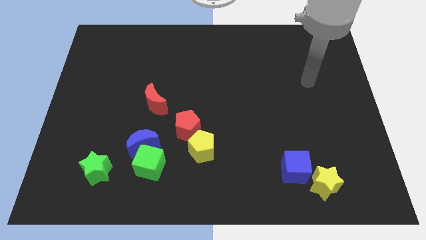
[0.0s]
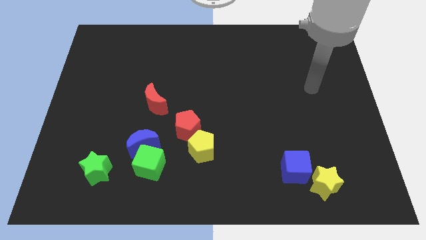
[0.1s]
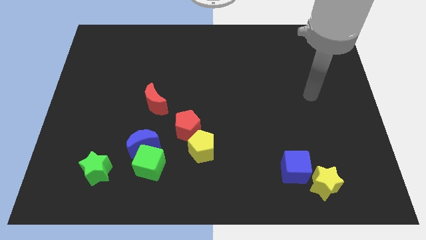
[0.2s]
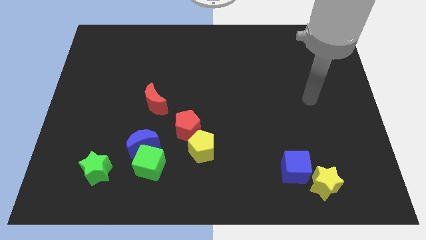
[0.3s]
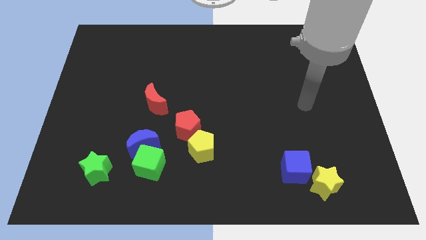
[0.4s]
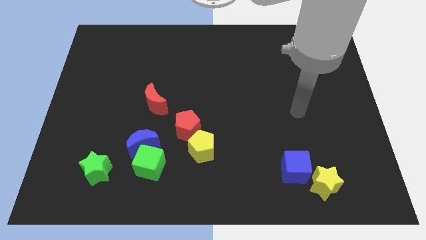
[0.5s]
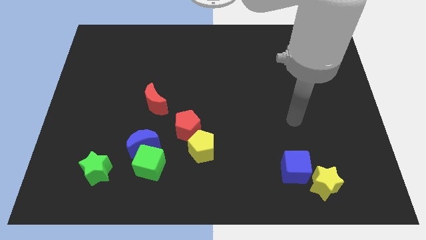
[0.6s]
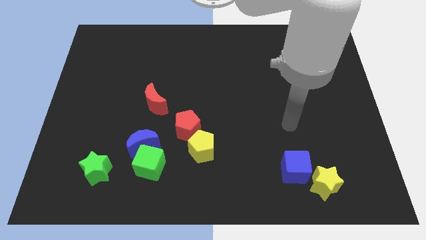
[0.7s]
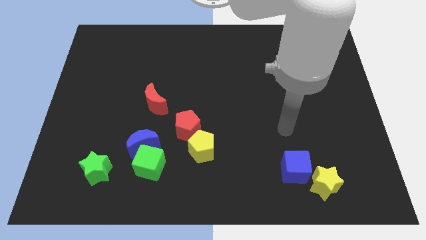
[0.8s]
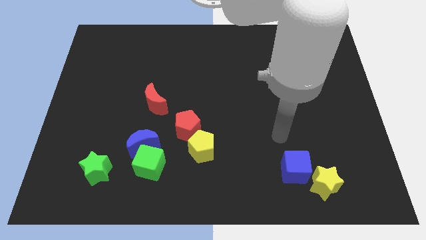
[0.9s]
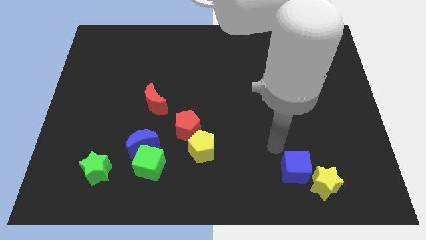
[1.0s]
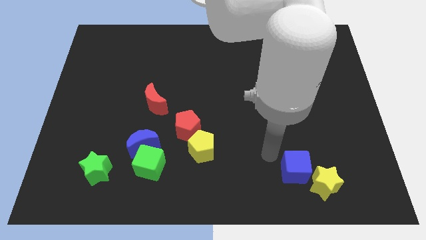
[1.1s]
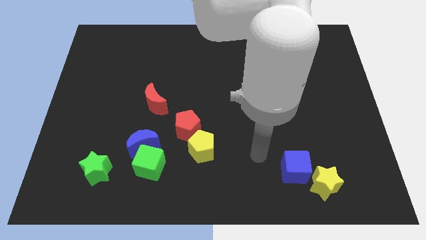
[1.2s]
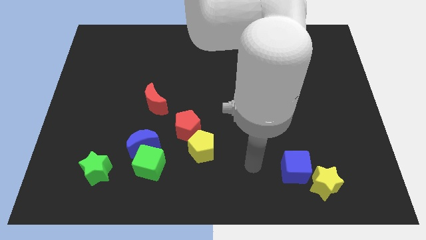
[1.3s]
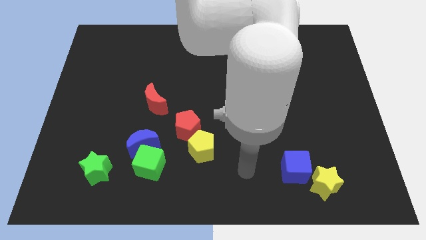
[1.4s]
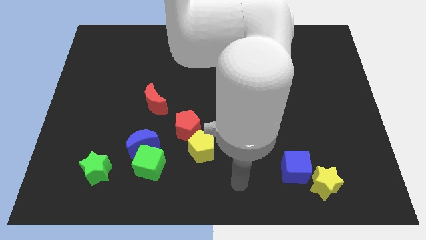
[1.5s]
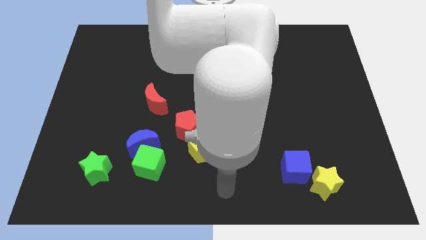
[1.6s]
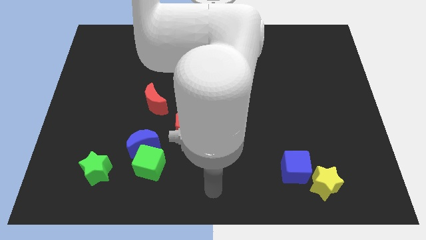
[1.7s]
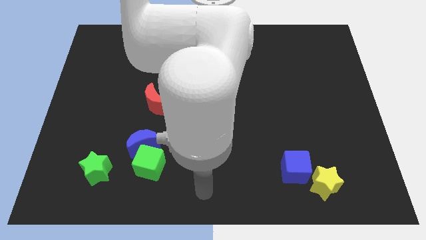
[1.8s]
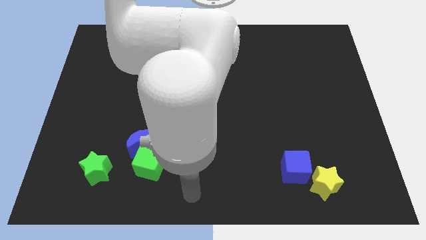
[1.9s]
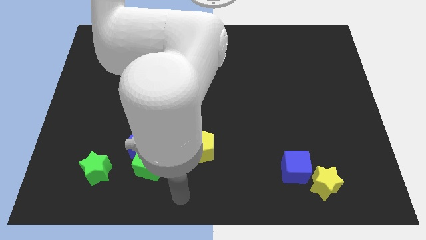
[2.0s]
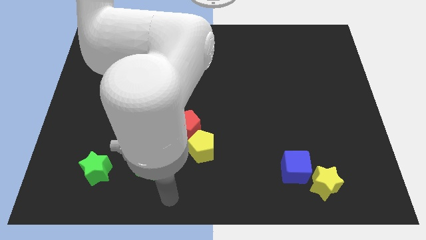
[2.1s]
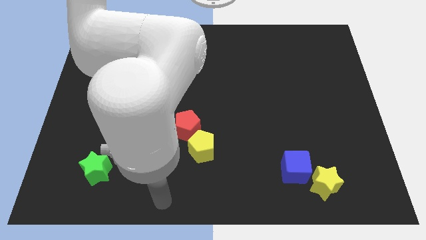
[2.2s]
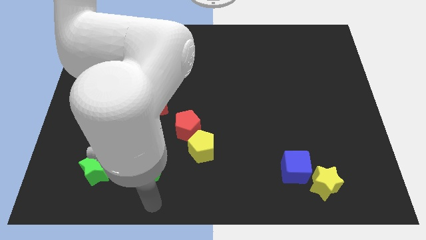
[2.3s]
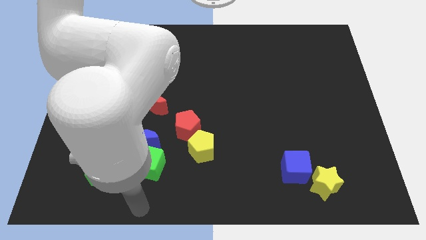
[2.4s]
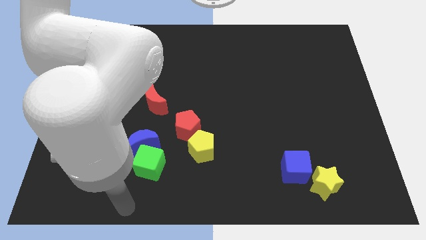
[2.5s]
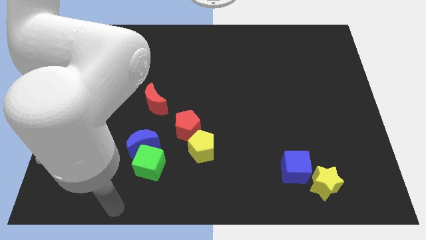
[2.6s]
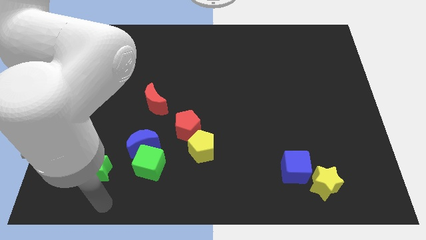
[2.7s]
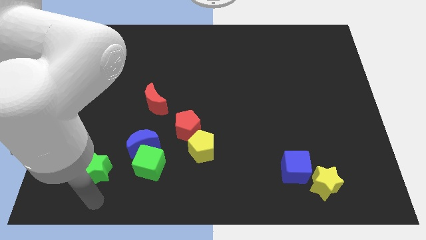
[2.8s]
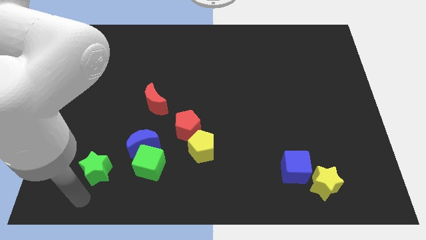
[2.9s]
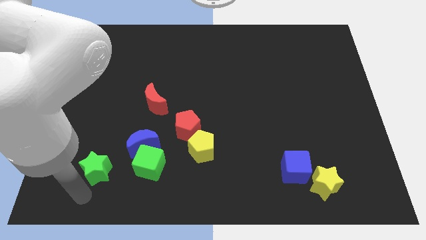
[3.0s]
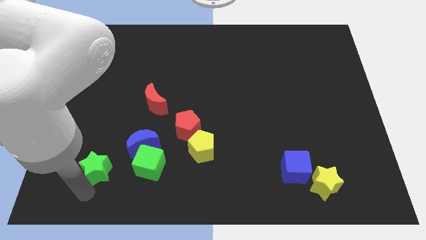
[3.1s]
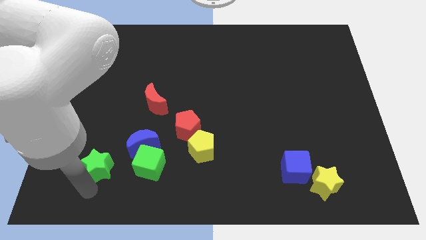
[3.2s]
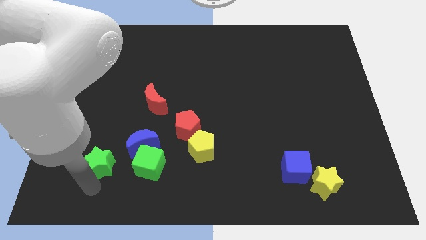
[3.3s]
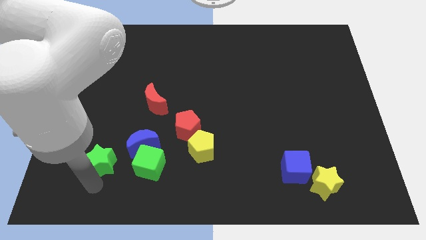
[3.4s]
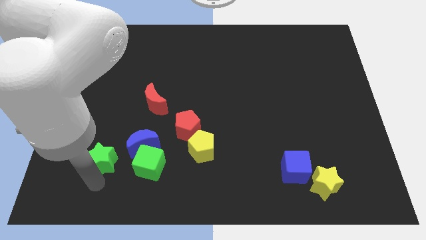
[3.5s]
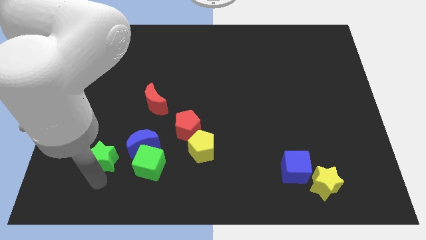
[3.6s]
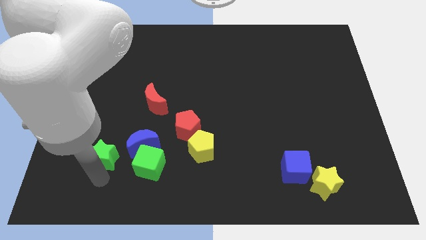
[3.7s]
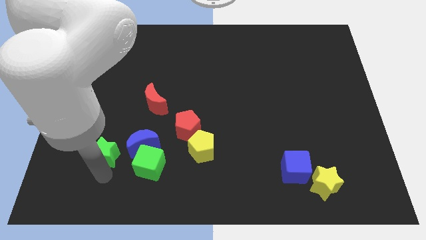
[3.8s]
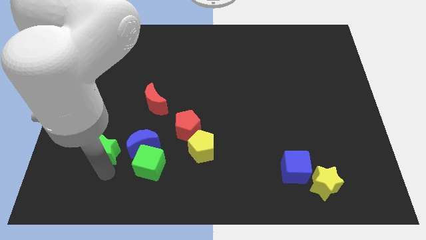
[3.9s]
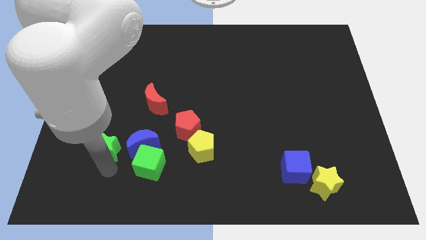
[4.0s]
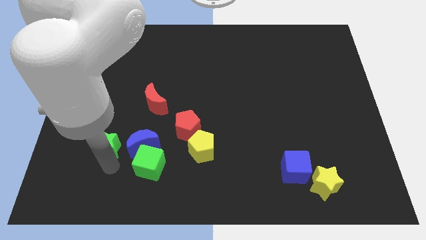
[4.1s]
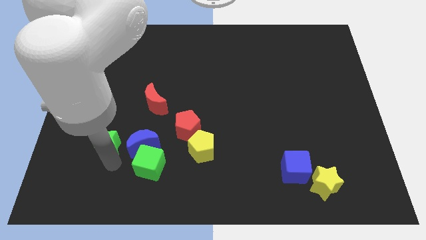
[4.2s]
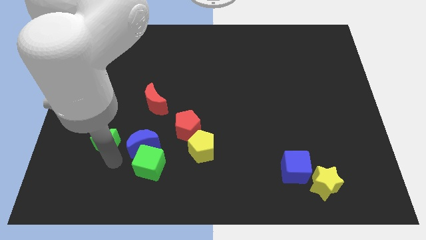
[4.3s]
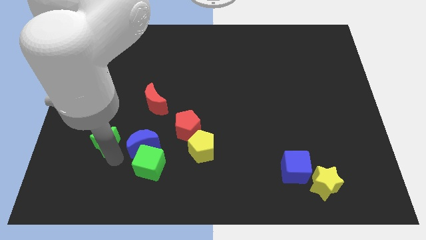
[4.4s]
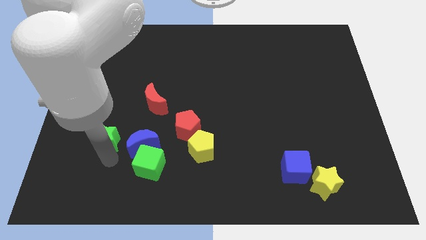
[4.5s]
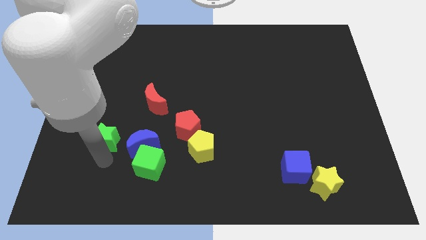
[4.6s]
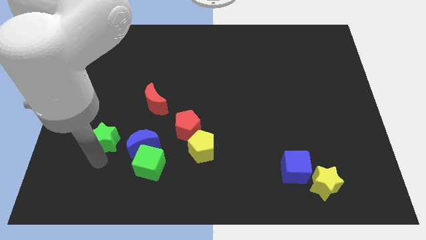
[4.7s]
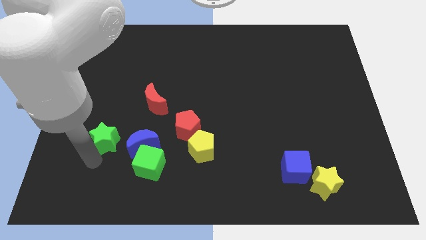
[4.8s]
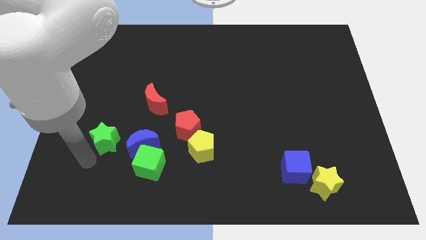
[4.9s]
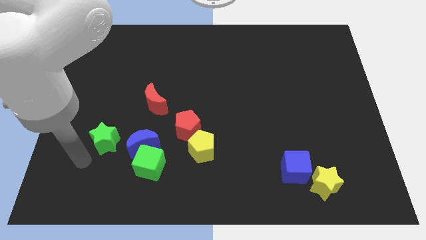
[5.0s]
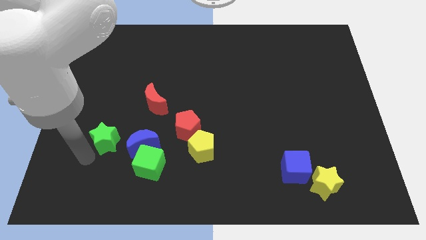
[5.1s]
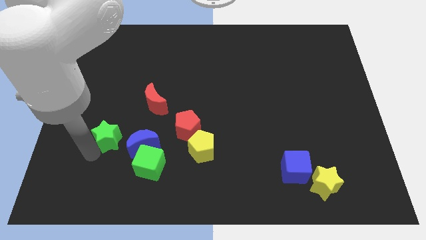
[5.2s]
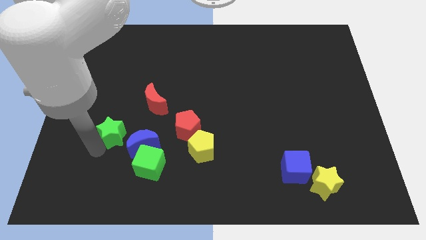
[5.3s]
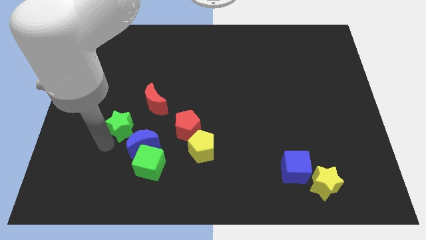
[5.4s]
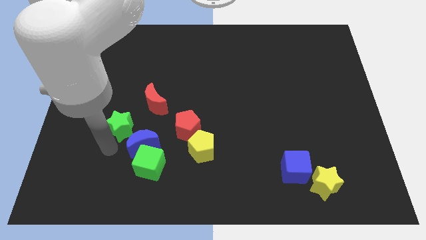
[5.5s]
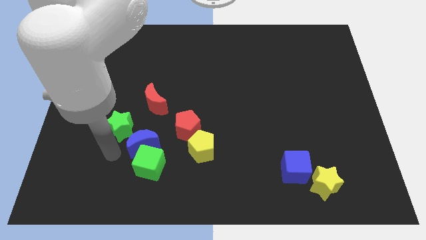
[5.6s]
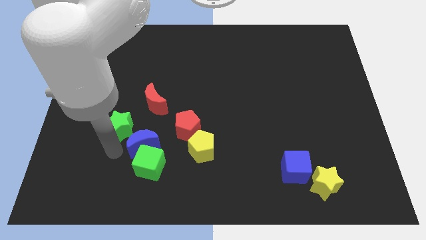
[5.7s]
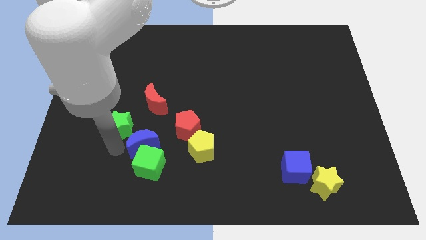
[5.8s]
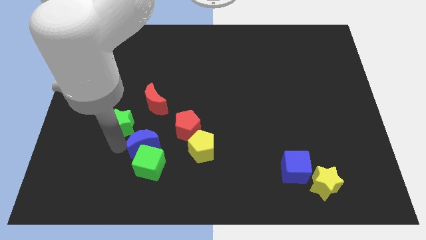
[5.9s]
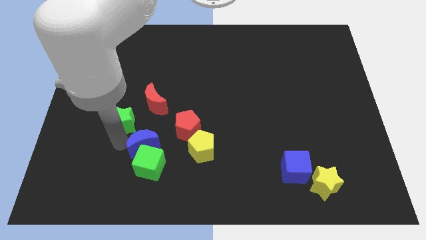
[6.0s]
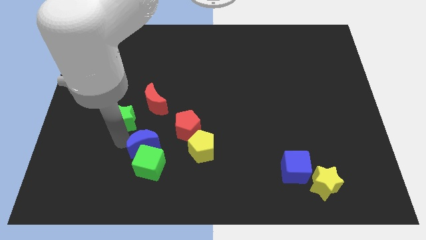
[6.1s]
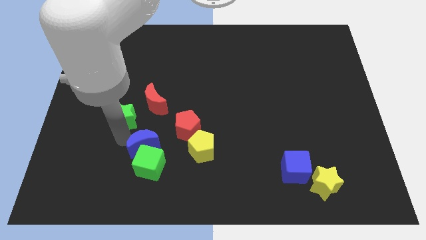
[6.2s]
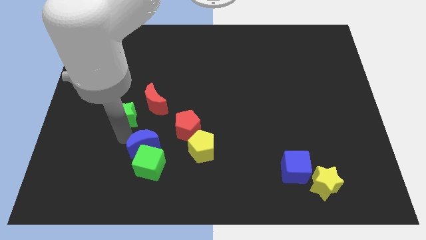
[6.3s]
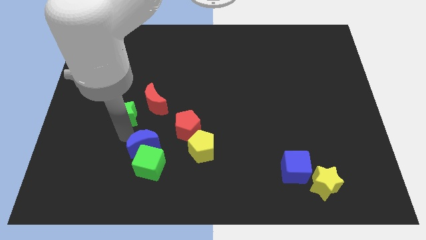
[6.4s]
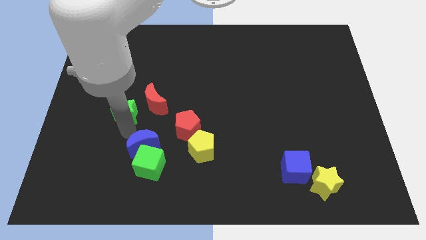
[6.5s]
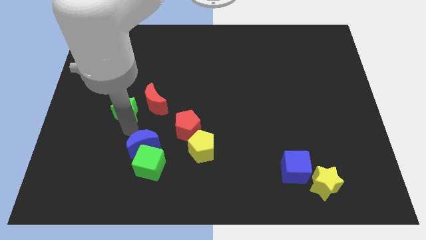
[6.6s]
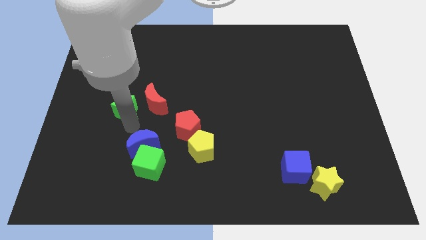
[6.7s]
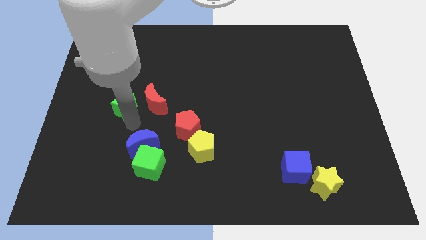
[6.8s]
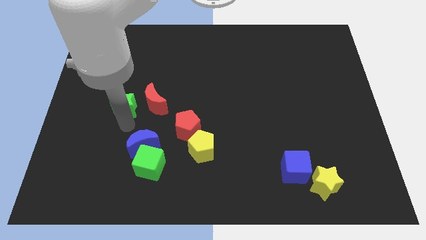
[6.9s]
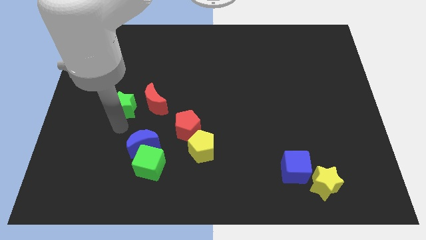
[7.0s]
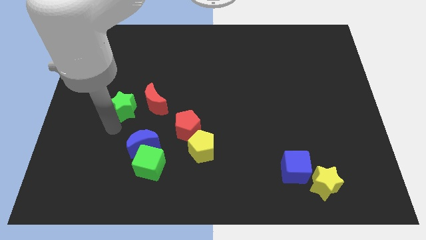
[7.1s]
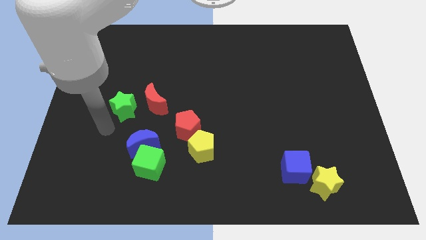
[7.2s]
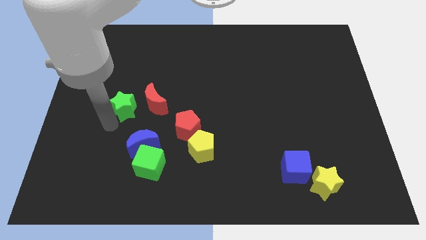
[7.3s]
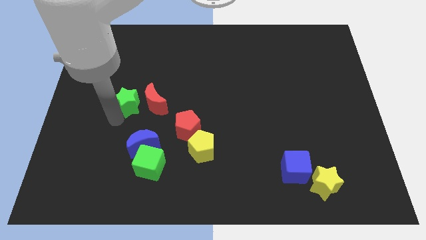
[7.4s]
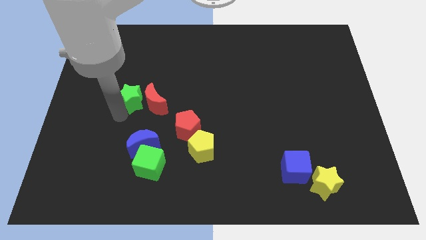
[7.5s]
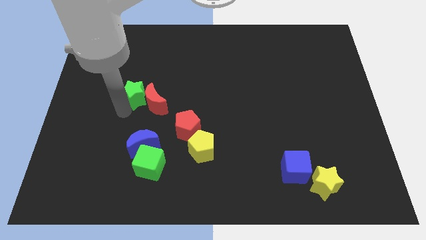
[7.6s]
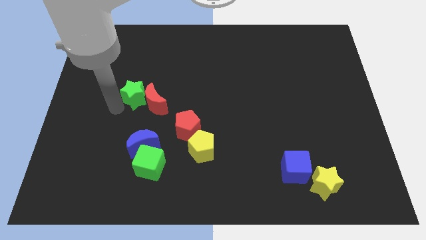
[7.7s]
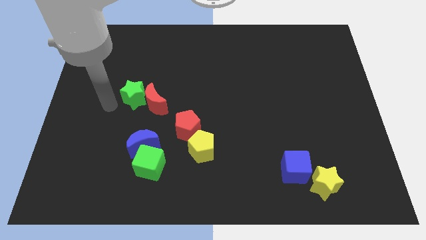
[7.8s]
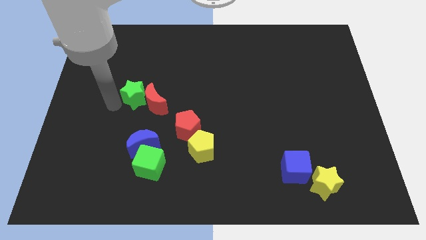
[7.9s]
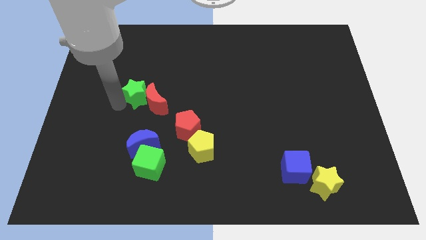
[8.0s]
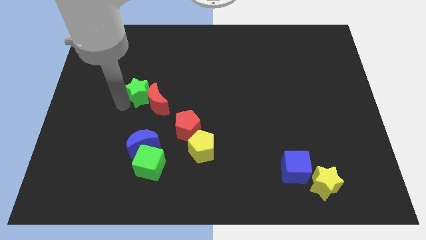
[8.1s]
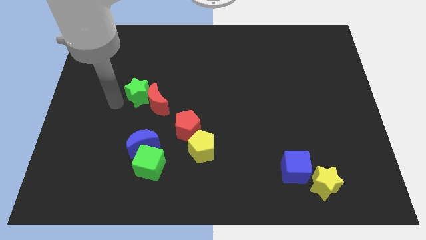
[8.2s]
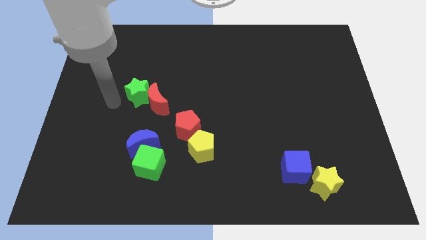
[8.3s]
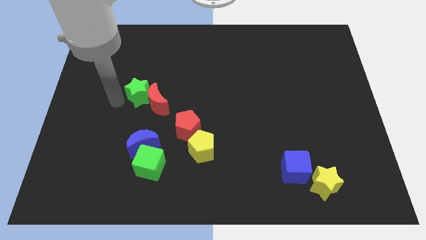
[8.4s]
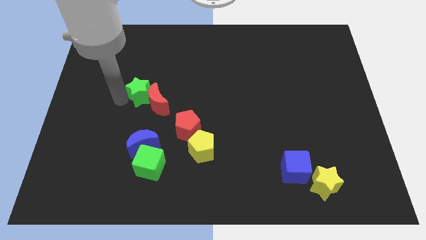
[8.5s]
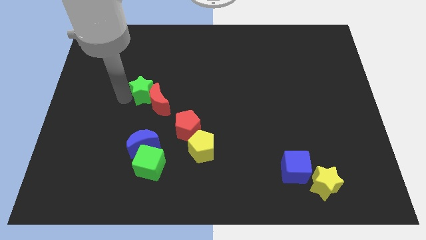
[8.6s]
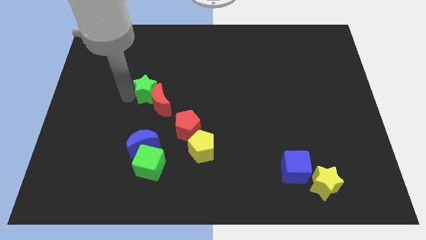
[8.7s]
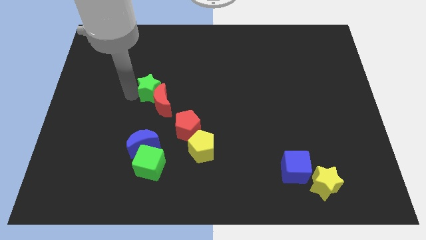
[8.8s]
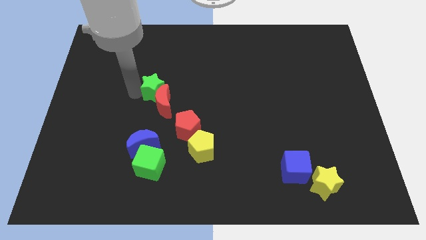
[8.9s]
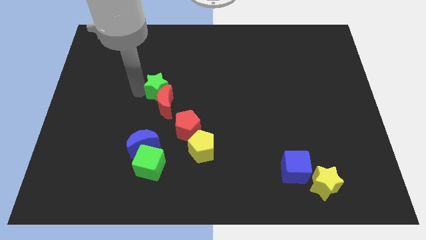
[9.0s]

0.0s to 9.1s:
slide the green star to the top right of the red moon
